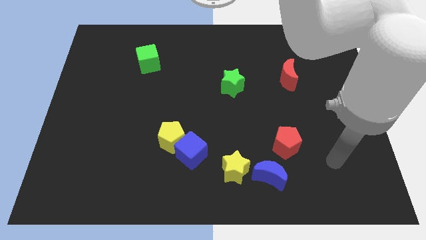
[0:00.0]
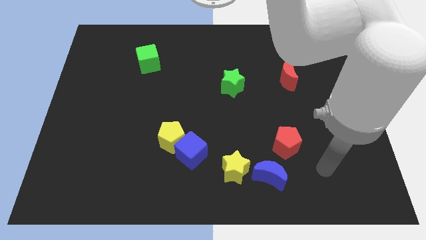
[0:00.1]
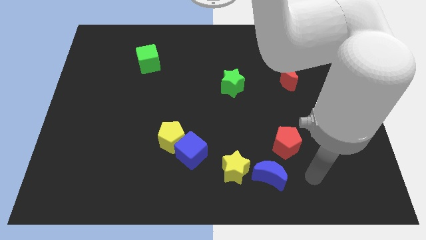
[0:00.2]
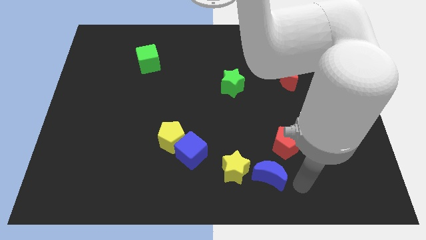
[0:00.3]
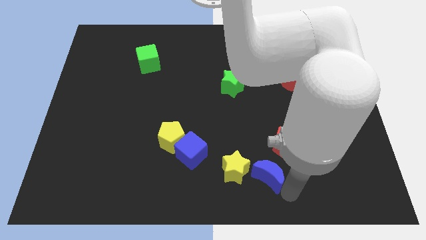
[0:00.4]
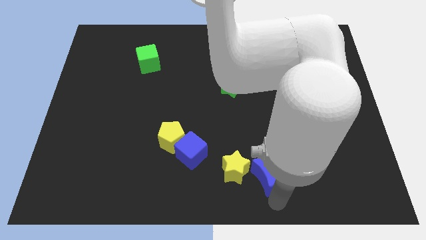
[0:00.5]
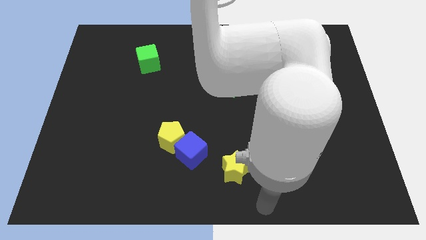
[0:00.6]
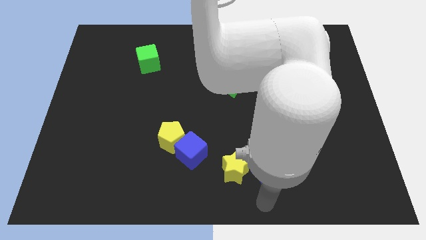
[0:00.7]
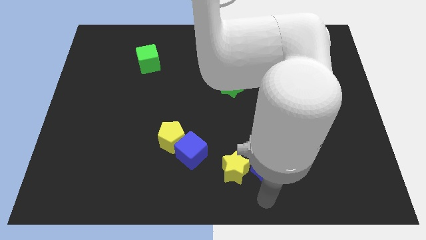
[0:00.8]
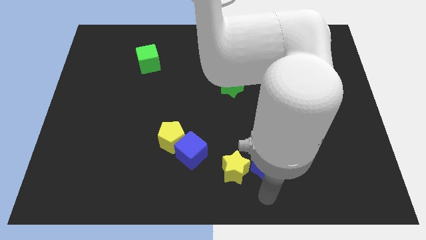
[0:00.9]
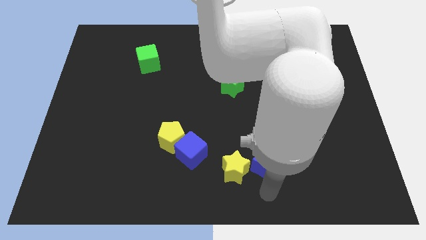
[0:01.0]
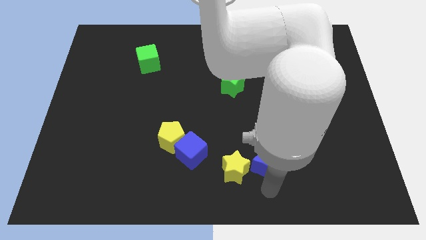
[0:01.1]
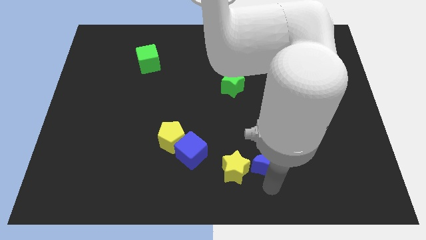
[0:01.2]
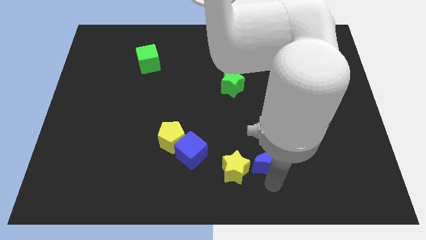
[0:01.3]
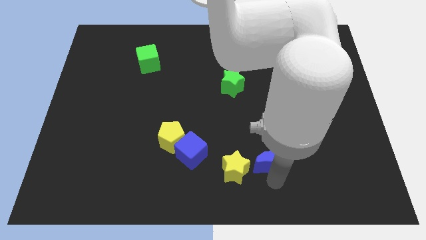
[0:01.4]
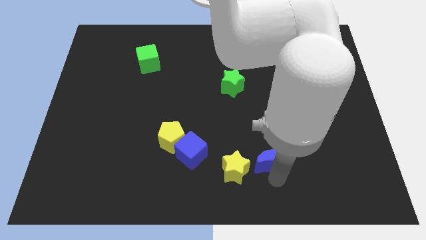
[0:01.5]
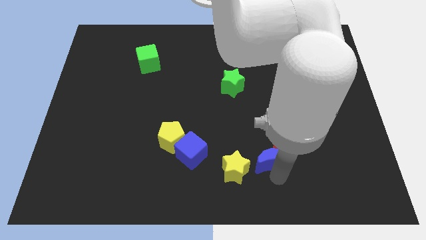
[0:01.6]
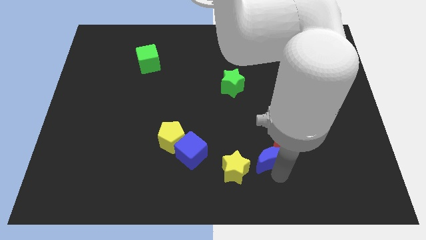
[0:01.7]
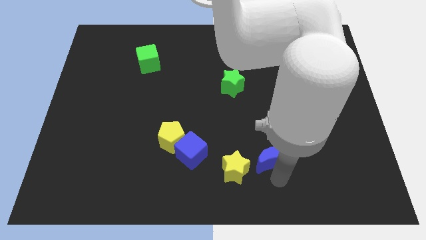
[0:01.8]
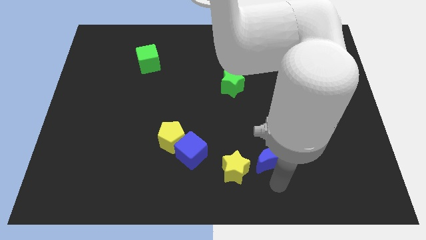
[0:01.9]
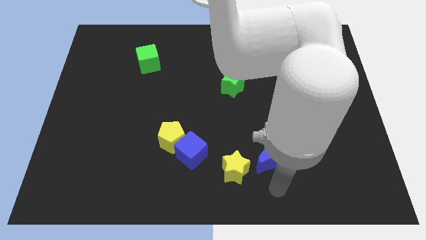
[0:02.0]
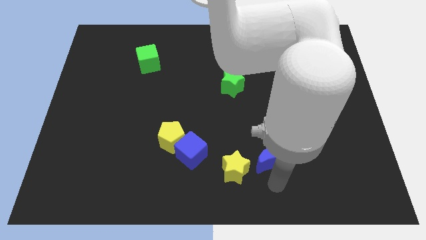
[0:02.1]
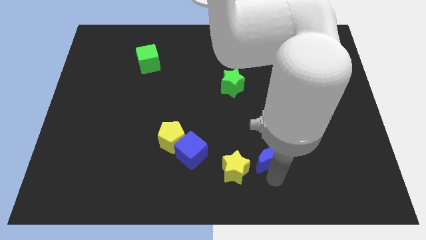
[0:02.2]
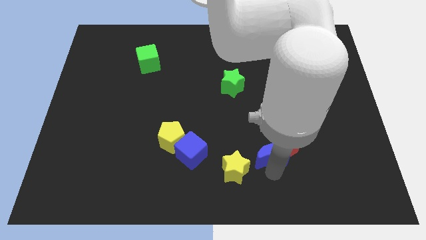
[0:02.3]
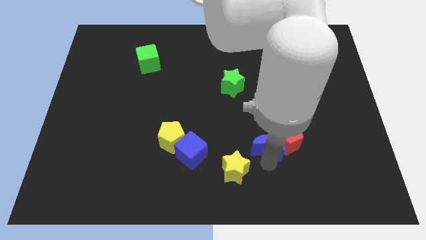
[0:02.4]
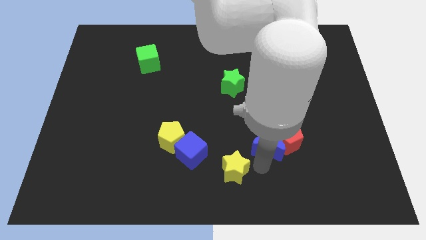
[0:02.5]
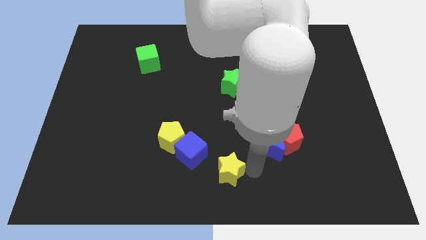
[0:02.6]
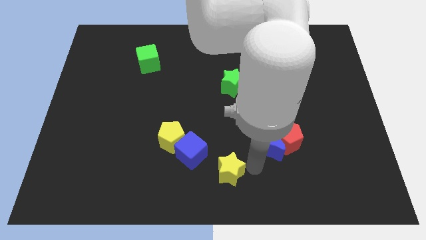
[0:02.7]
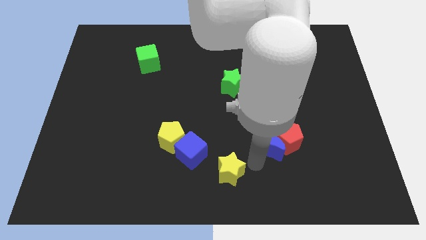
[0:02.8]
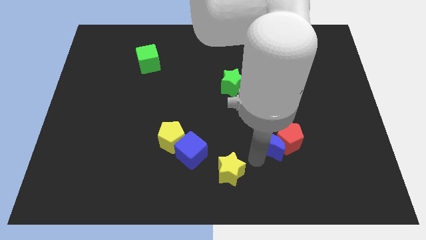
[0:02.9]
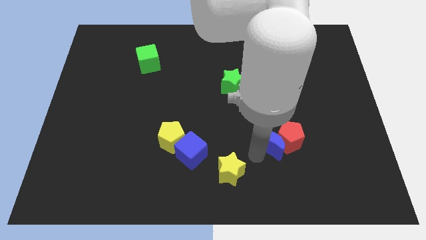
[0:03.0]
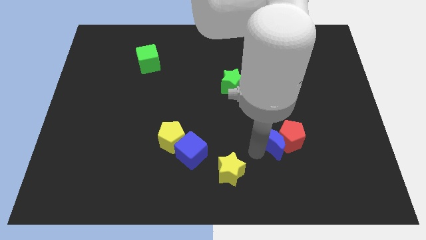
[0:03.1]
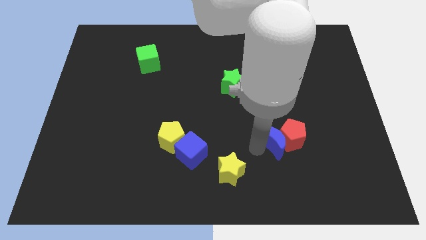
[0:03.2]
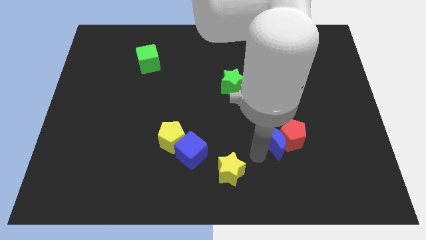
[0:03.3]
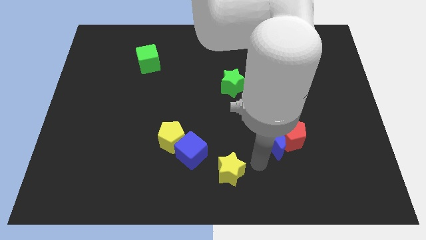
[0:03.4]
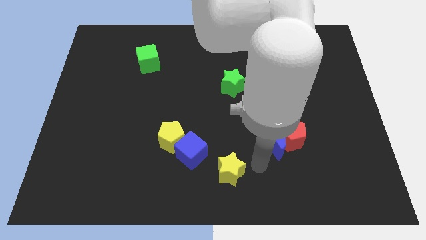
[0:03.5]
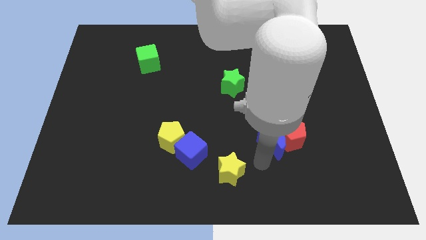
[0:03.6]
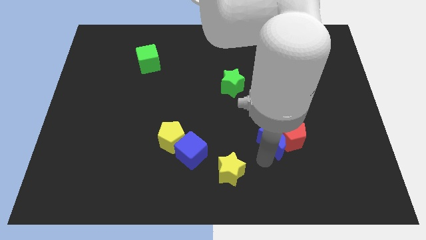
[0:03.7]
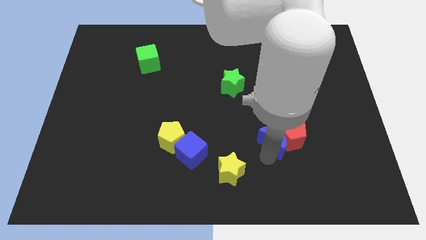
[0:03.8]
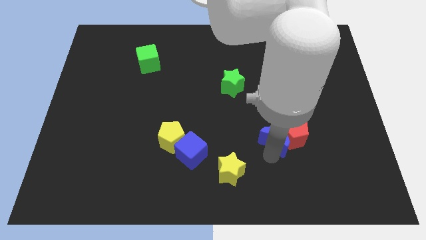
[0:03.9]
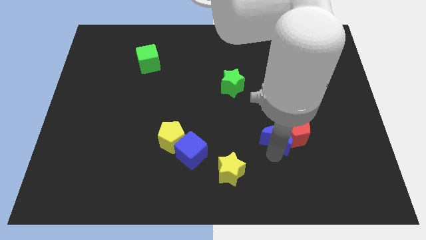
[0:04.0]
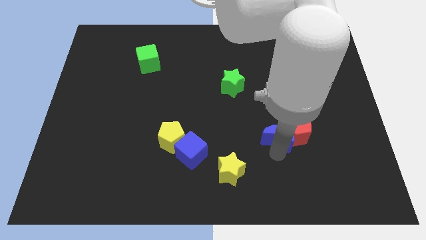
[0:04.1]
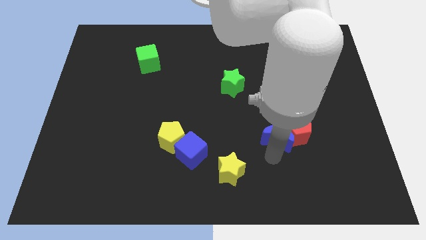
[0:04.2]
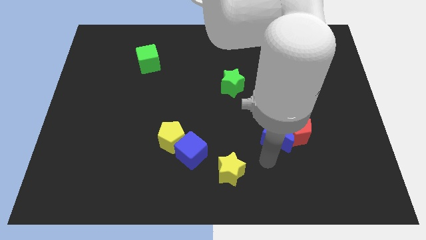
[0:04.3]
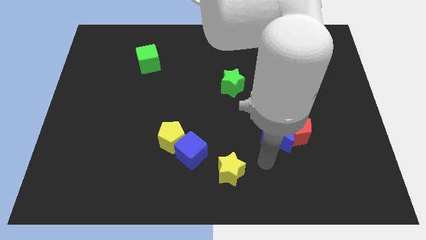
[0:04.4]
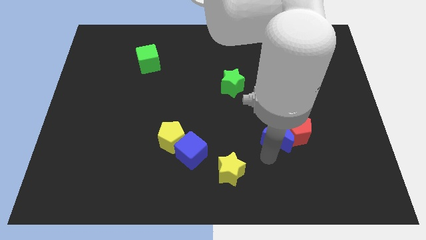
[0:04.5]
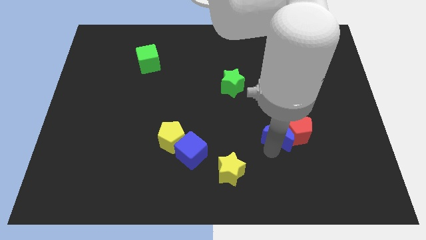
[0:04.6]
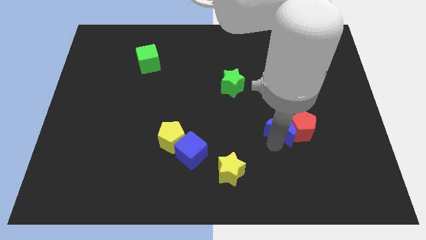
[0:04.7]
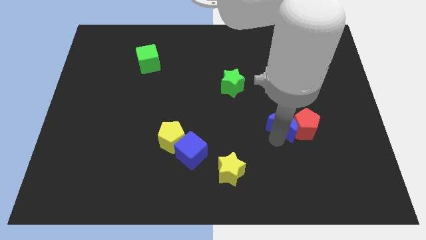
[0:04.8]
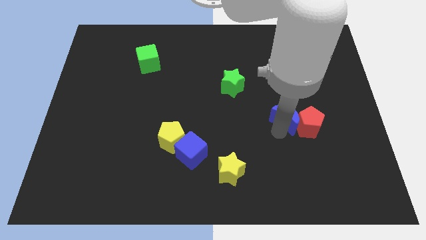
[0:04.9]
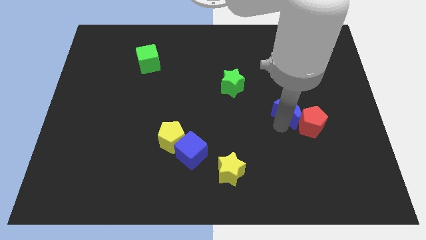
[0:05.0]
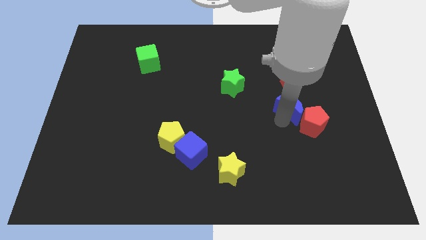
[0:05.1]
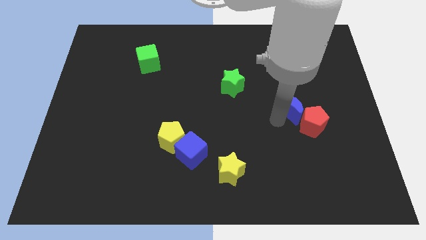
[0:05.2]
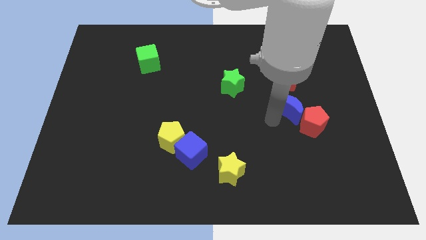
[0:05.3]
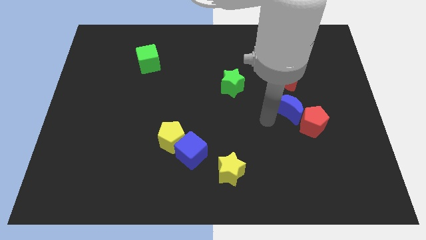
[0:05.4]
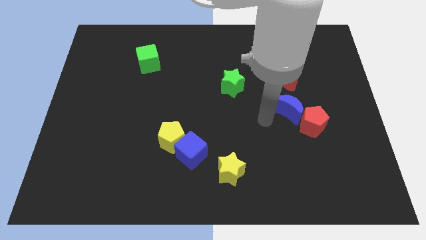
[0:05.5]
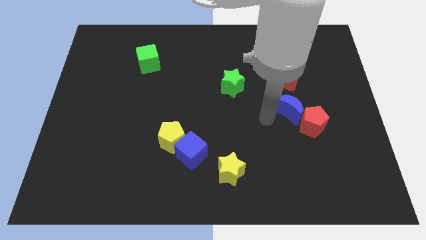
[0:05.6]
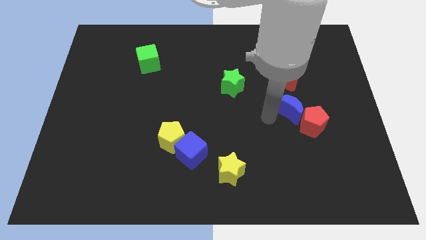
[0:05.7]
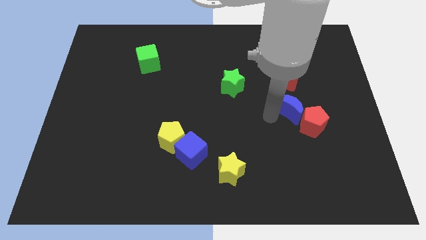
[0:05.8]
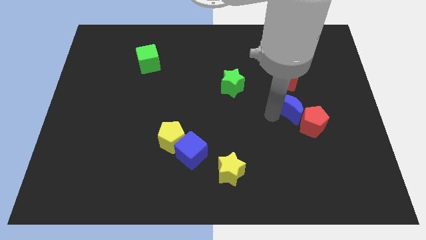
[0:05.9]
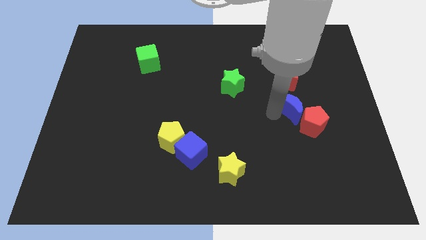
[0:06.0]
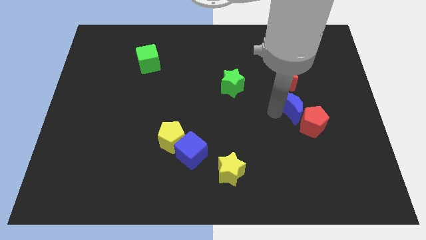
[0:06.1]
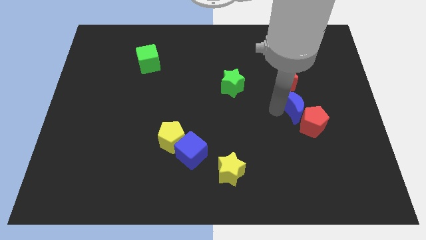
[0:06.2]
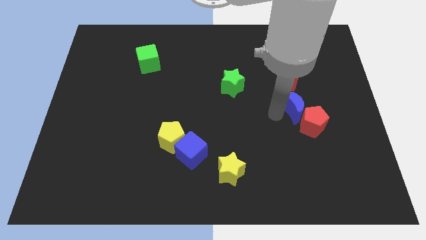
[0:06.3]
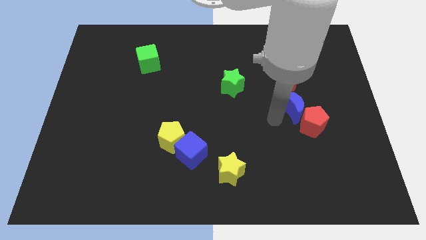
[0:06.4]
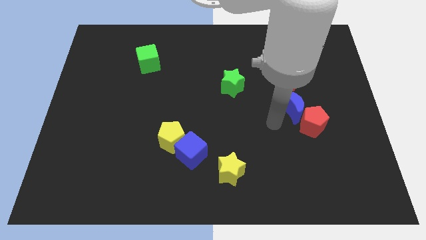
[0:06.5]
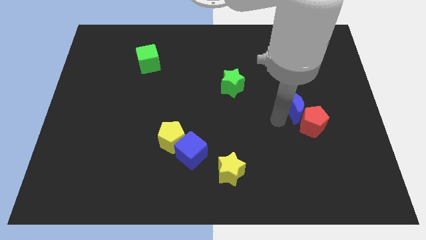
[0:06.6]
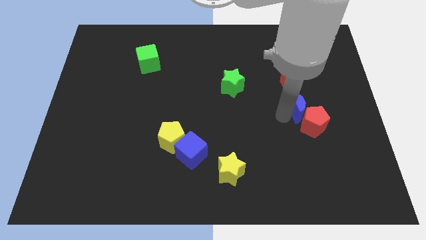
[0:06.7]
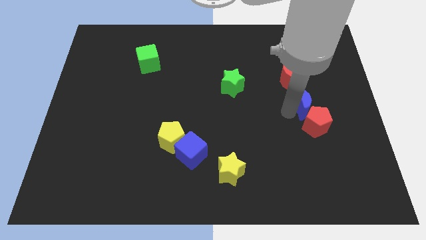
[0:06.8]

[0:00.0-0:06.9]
slide the blue moon diagonally down and to the right of the red moon

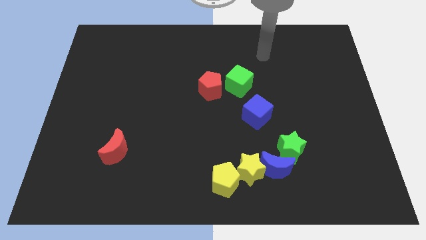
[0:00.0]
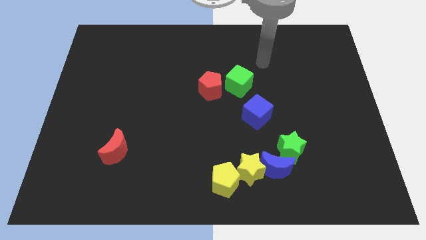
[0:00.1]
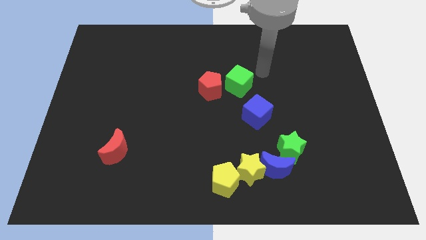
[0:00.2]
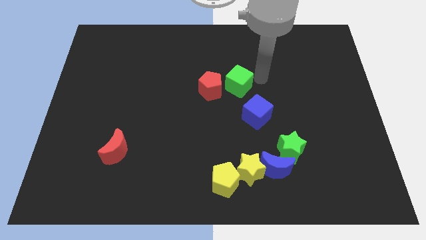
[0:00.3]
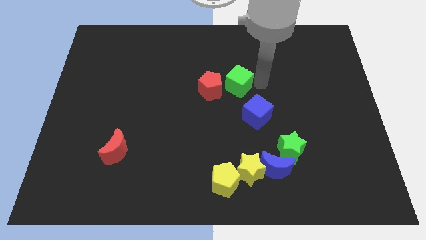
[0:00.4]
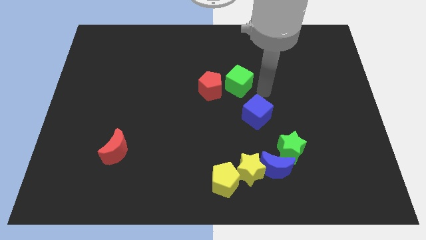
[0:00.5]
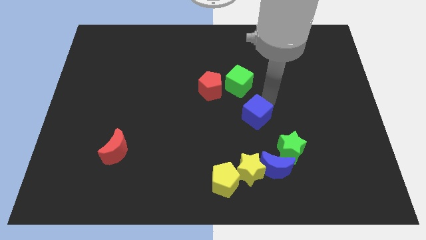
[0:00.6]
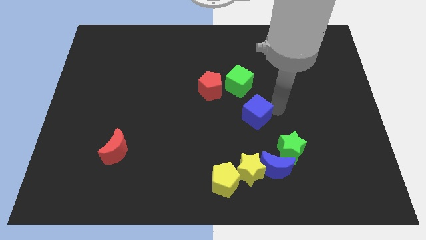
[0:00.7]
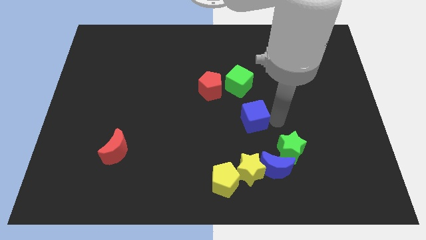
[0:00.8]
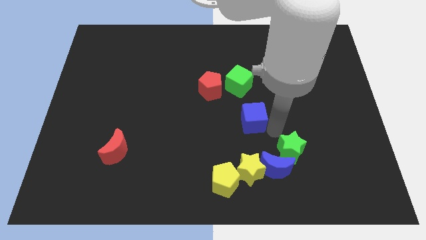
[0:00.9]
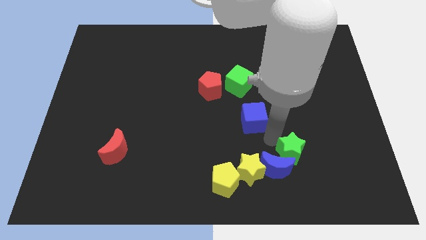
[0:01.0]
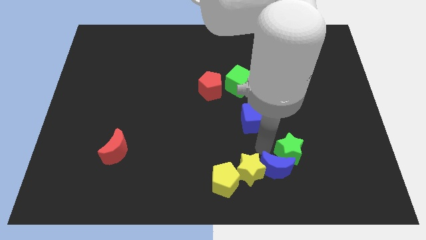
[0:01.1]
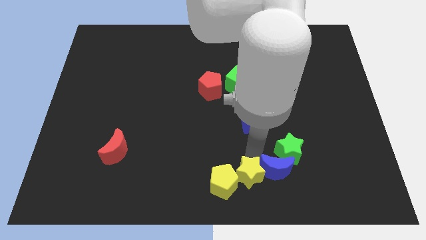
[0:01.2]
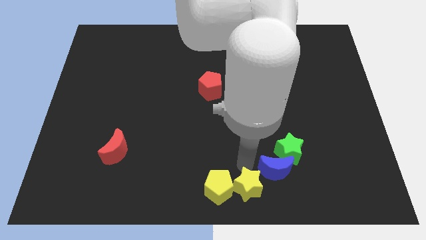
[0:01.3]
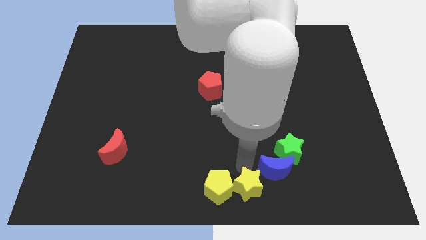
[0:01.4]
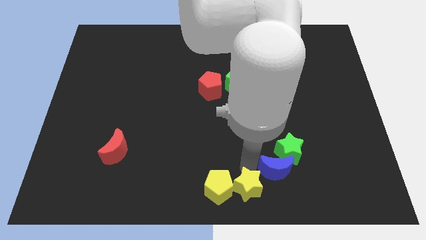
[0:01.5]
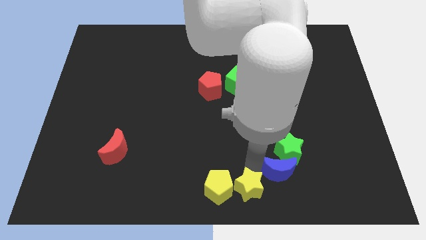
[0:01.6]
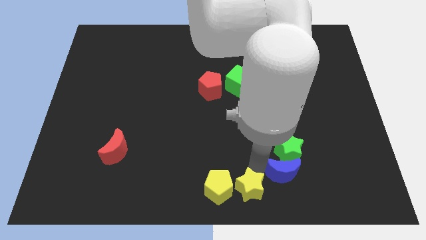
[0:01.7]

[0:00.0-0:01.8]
push the blue moon to the bottom right of the green star
